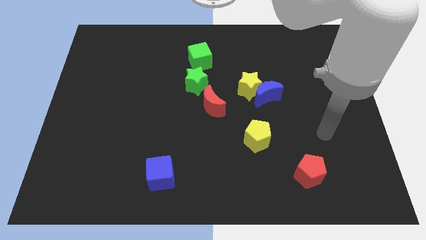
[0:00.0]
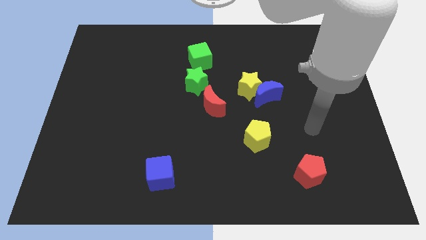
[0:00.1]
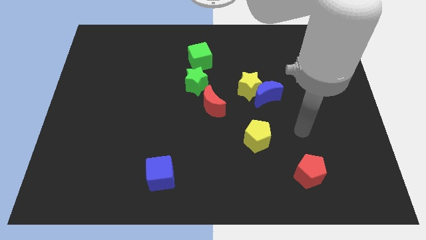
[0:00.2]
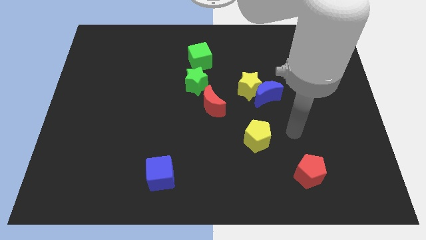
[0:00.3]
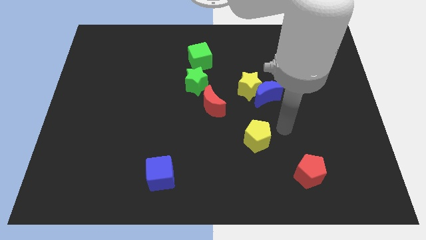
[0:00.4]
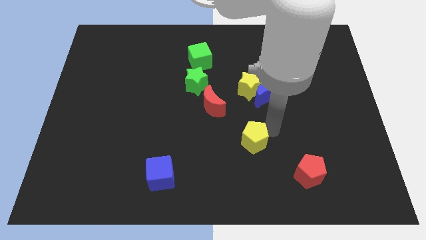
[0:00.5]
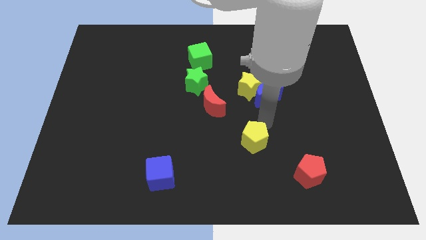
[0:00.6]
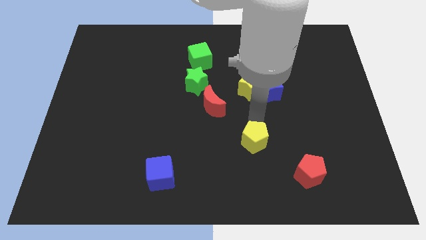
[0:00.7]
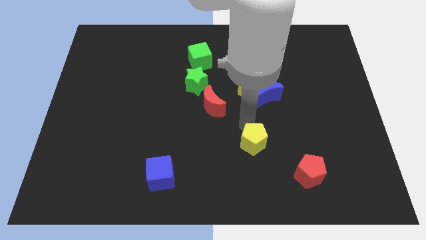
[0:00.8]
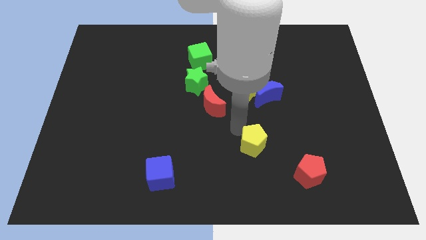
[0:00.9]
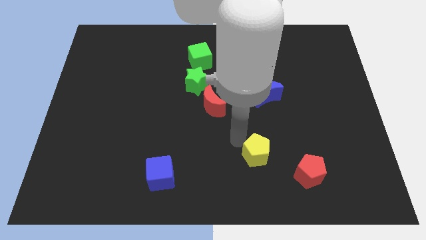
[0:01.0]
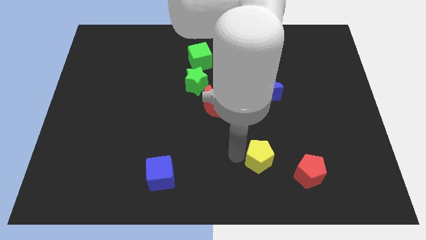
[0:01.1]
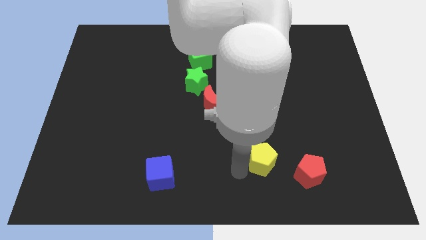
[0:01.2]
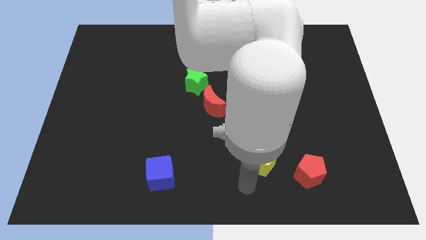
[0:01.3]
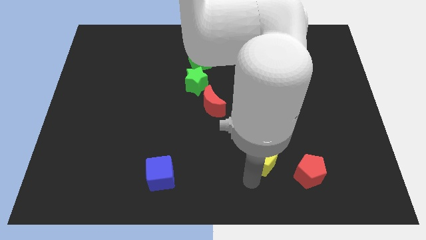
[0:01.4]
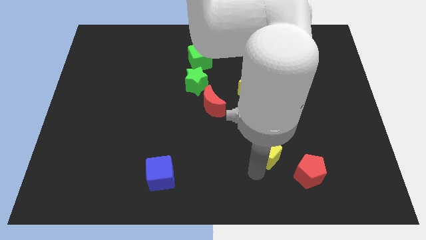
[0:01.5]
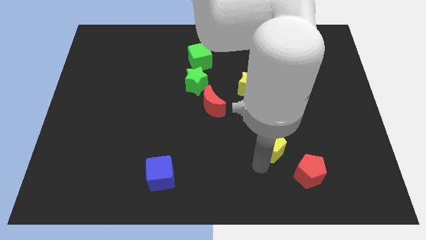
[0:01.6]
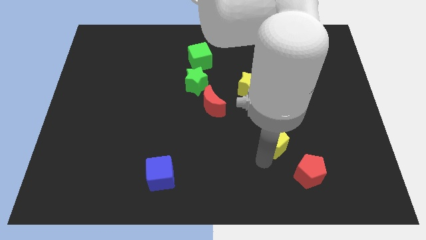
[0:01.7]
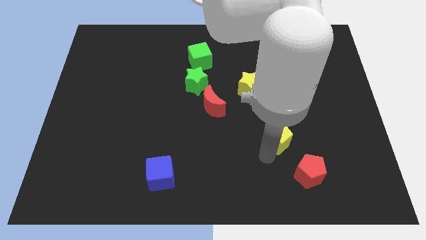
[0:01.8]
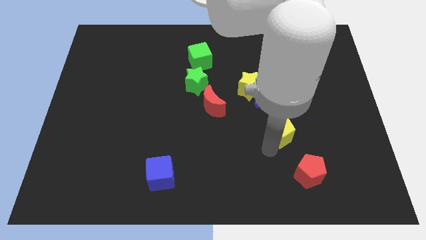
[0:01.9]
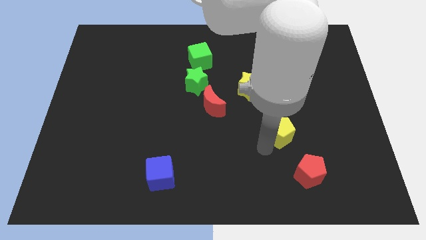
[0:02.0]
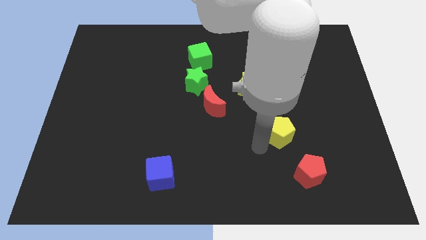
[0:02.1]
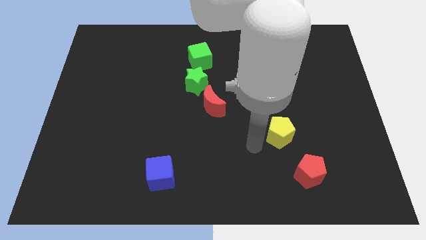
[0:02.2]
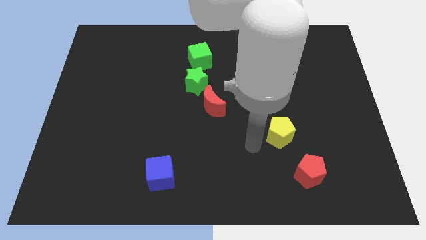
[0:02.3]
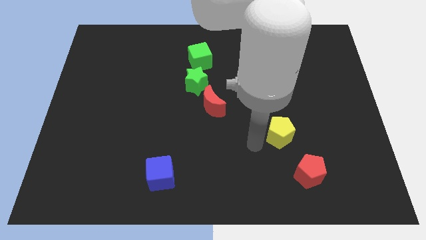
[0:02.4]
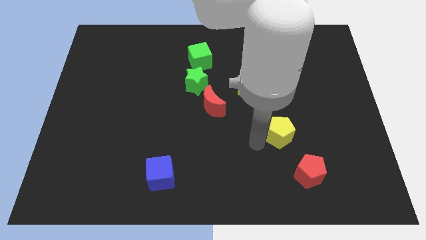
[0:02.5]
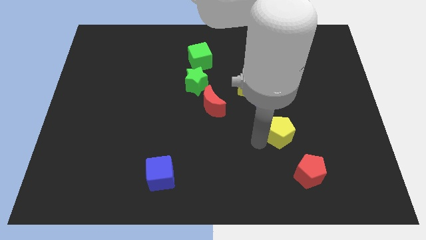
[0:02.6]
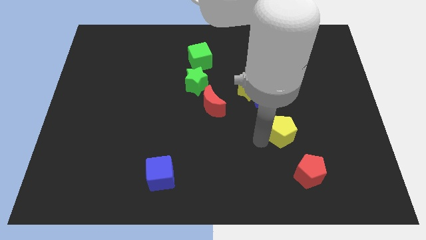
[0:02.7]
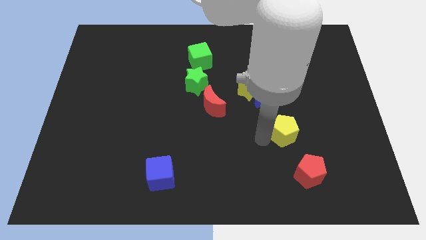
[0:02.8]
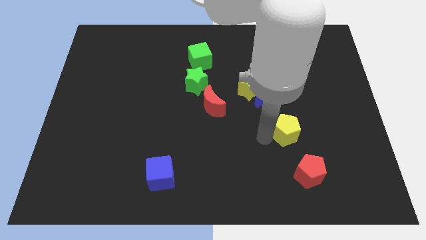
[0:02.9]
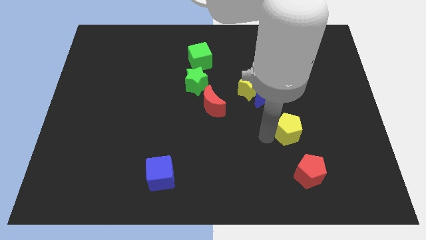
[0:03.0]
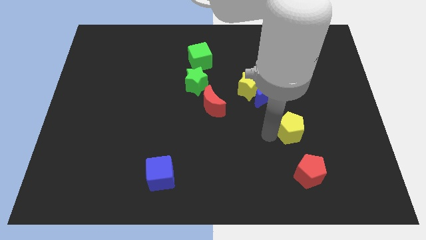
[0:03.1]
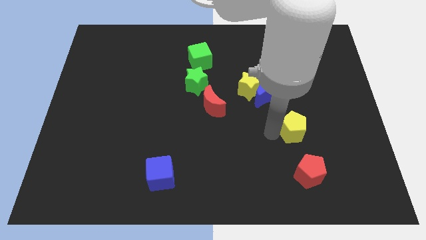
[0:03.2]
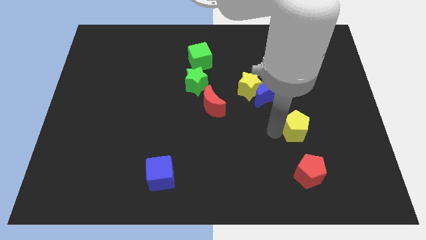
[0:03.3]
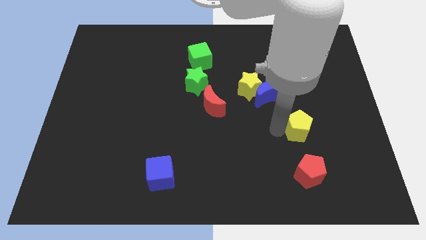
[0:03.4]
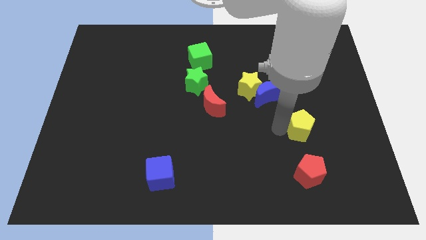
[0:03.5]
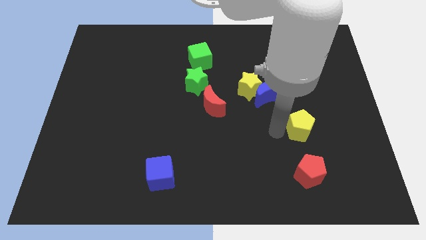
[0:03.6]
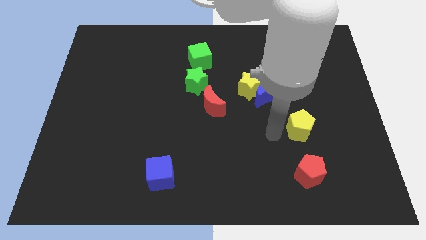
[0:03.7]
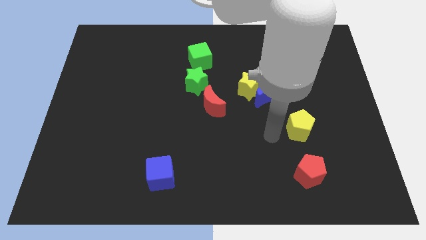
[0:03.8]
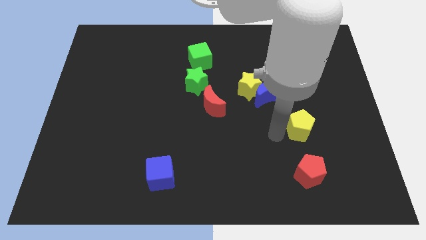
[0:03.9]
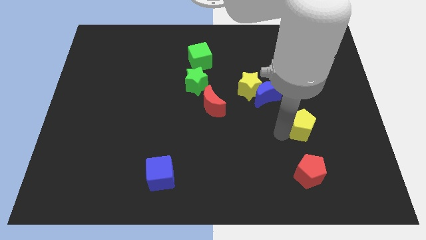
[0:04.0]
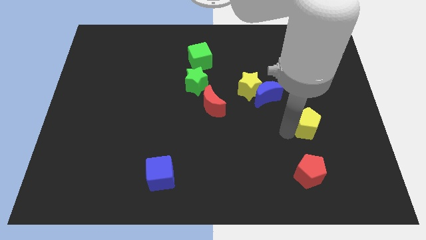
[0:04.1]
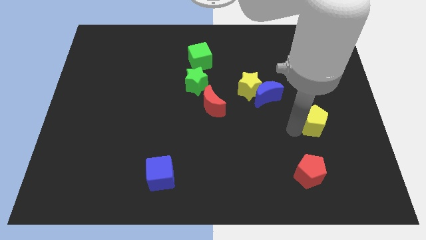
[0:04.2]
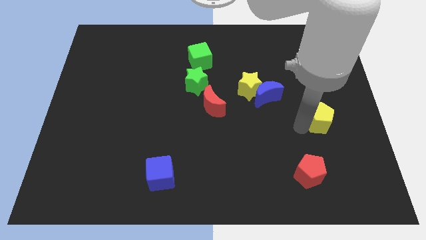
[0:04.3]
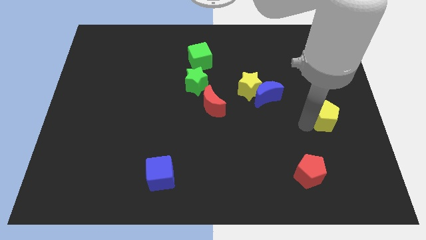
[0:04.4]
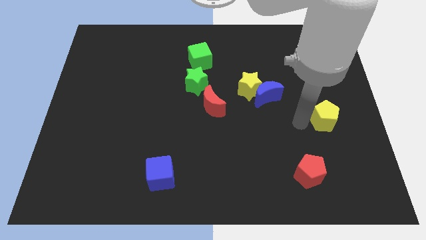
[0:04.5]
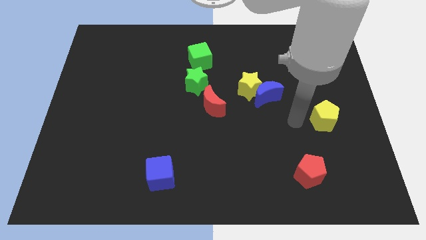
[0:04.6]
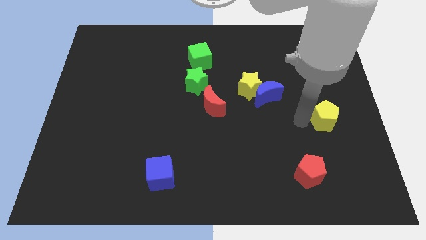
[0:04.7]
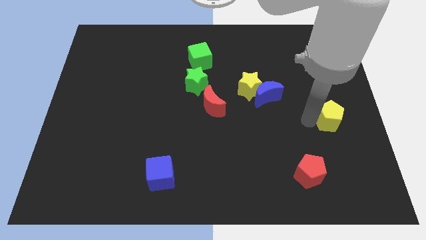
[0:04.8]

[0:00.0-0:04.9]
slide the yellow pentagon to the center right

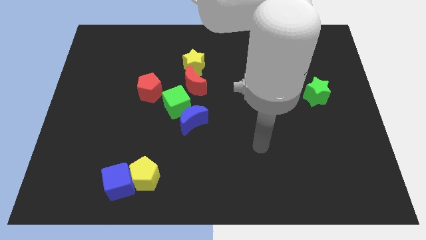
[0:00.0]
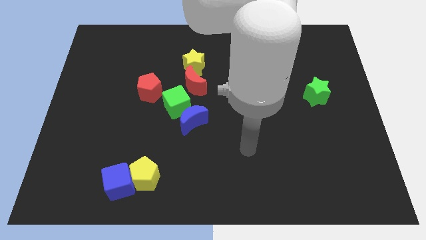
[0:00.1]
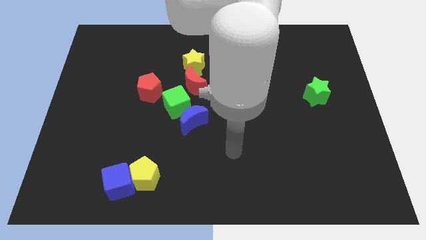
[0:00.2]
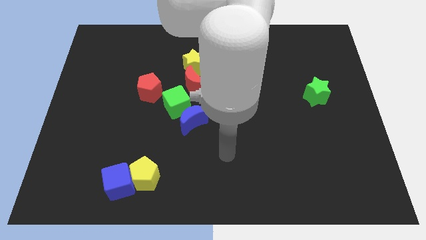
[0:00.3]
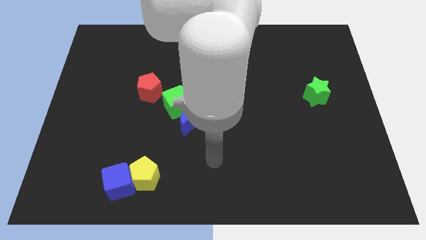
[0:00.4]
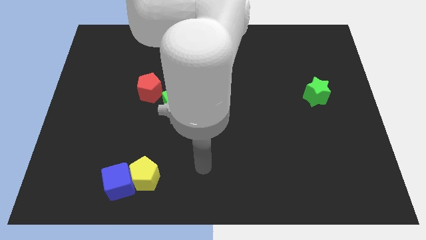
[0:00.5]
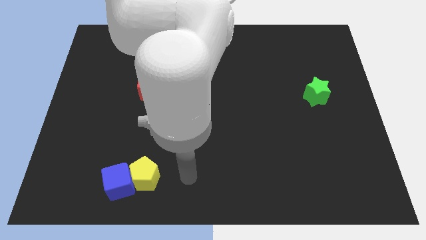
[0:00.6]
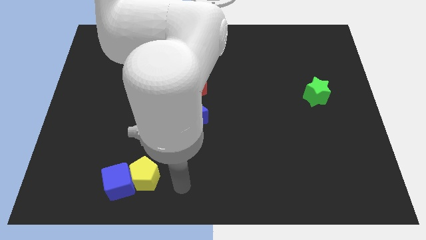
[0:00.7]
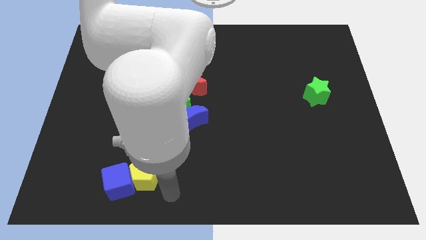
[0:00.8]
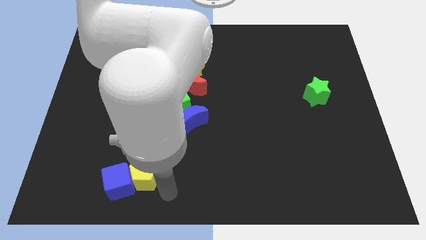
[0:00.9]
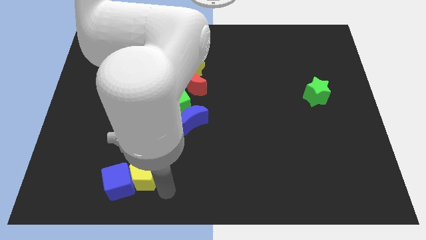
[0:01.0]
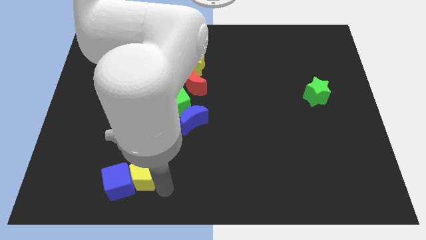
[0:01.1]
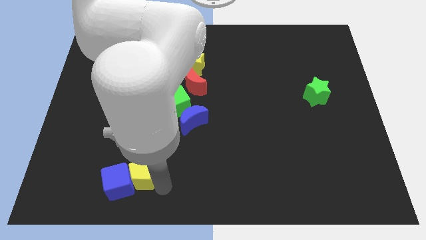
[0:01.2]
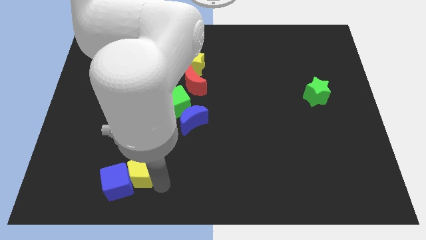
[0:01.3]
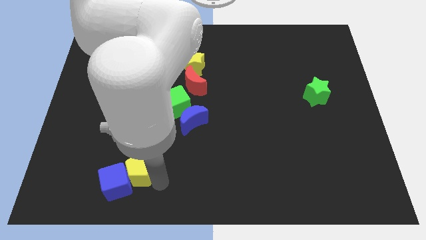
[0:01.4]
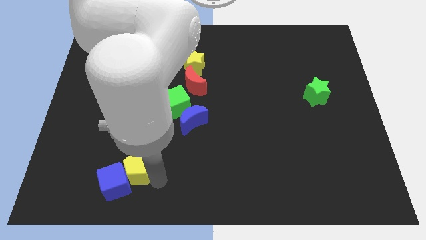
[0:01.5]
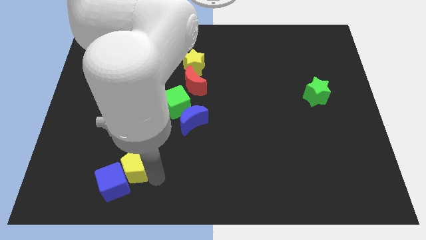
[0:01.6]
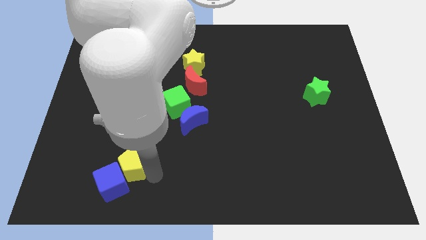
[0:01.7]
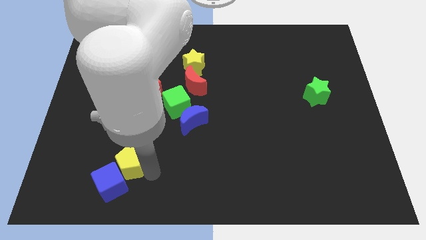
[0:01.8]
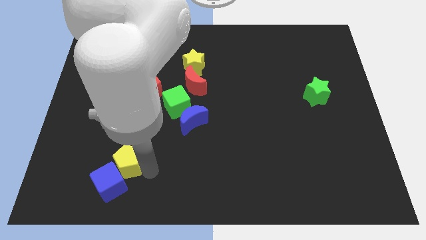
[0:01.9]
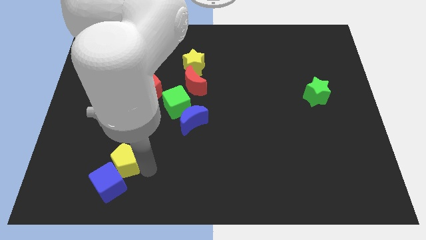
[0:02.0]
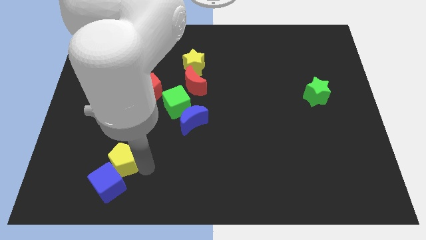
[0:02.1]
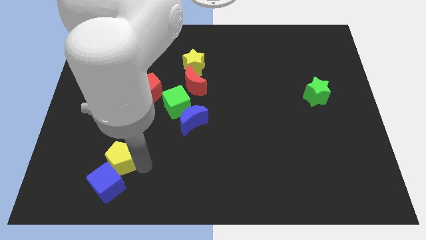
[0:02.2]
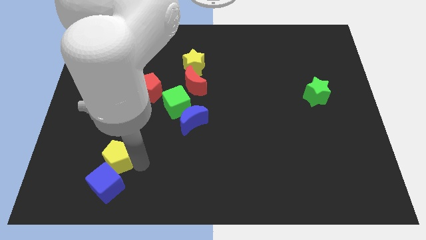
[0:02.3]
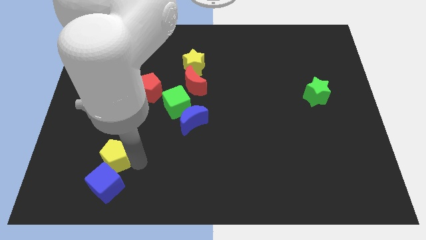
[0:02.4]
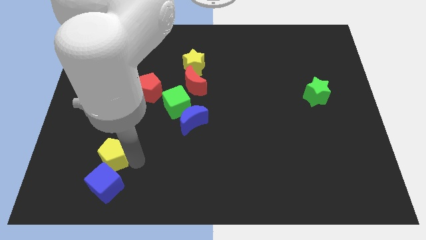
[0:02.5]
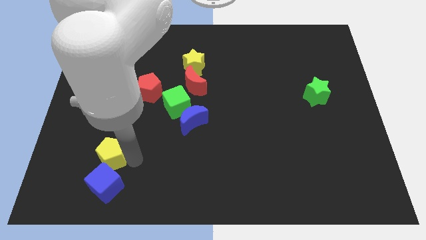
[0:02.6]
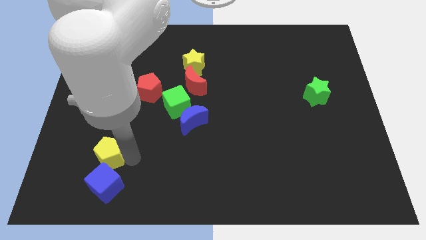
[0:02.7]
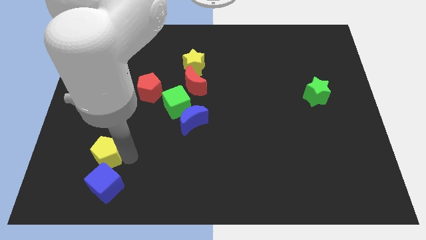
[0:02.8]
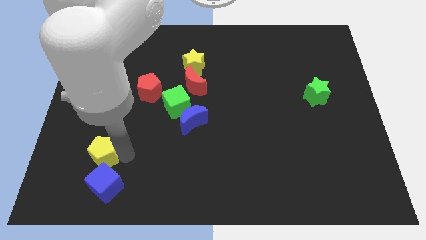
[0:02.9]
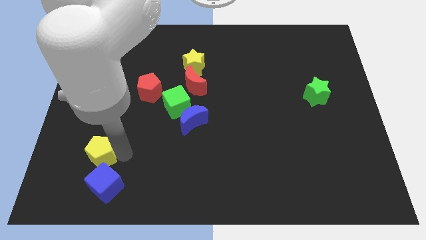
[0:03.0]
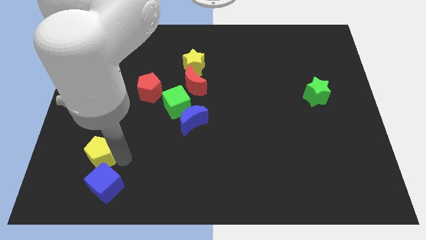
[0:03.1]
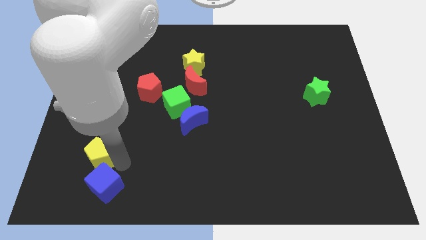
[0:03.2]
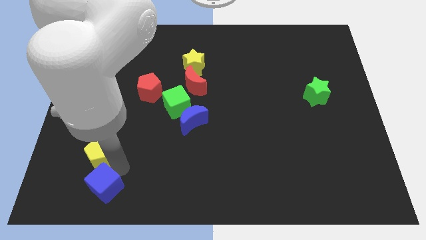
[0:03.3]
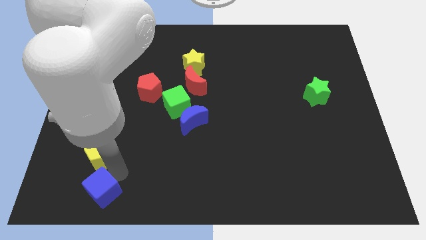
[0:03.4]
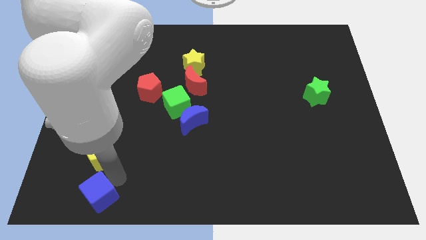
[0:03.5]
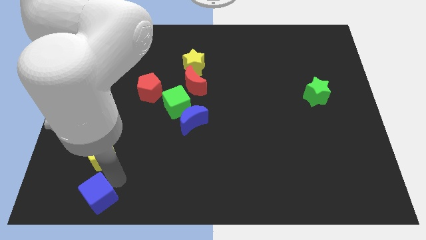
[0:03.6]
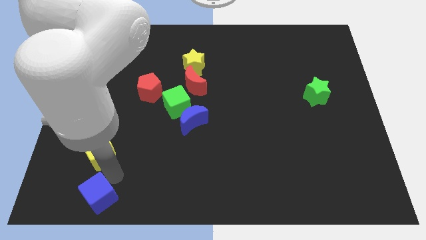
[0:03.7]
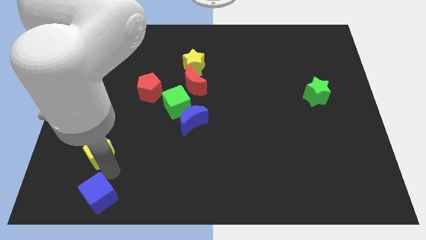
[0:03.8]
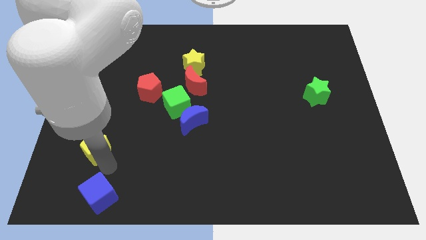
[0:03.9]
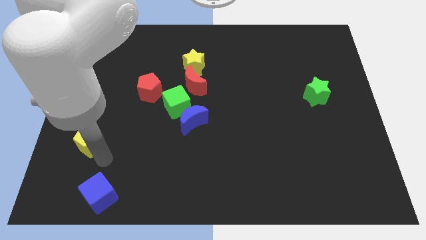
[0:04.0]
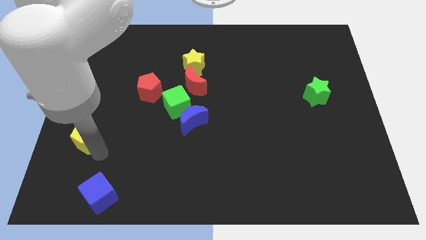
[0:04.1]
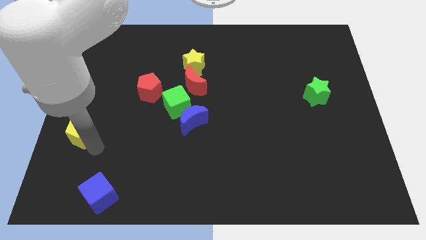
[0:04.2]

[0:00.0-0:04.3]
slide the yellow pentagon to the left side of the board
